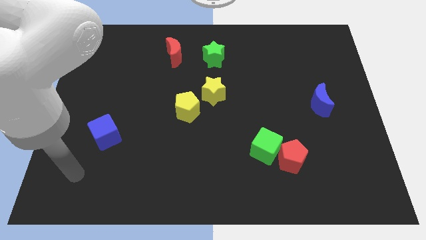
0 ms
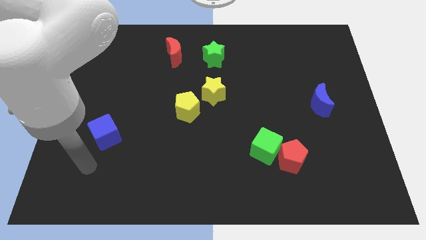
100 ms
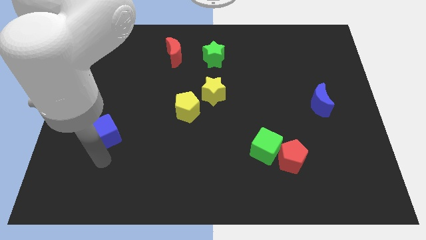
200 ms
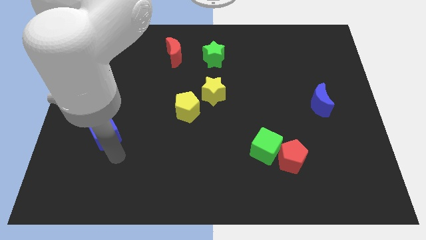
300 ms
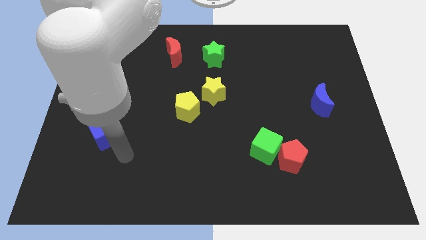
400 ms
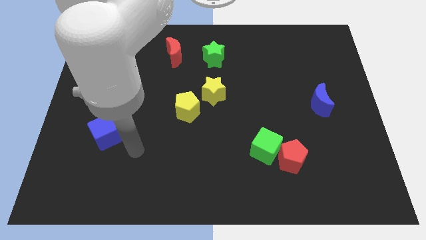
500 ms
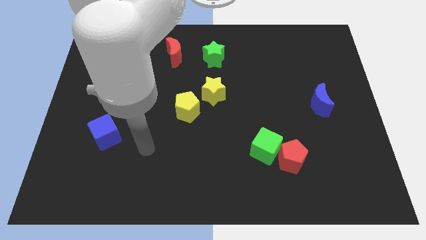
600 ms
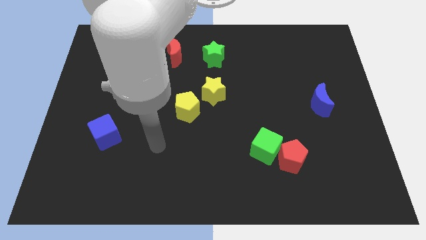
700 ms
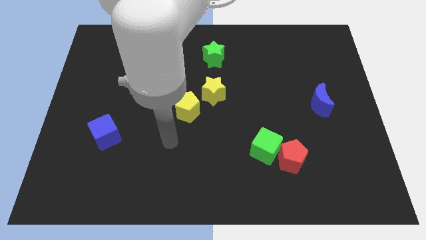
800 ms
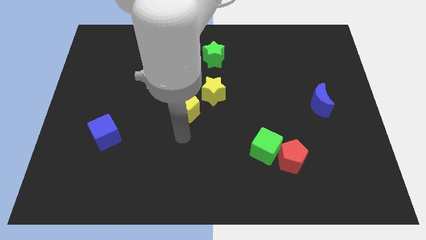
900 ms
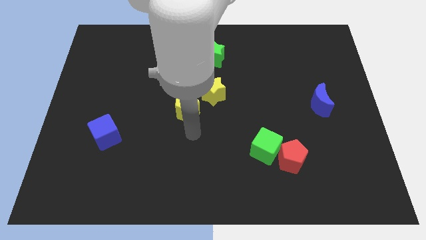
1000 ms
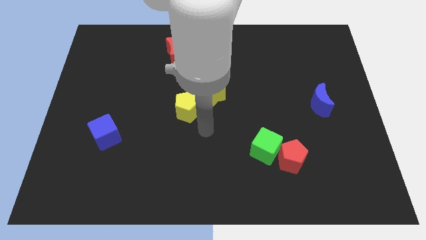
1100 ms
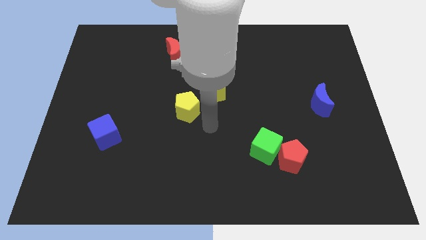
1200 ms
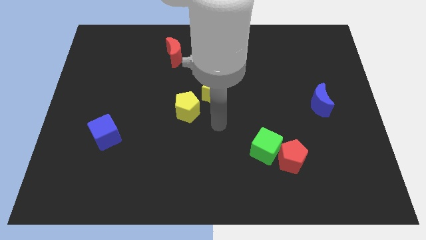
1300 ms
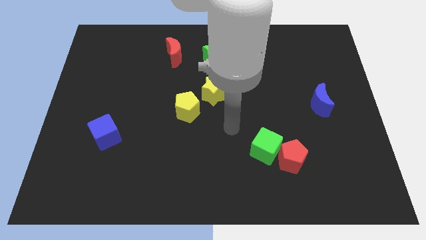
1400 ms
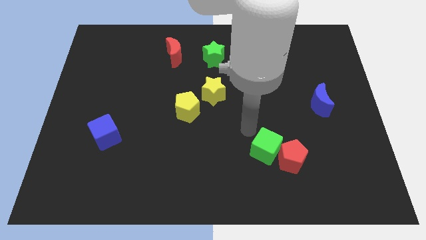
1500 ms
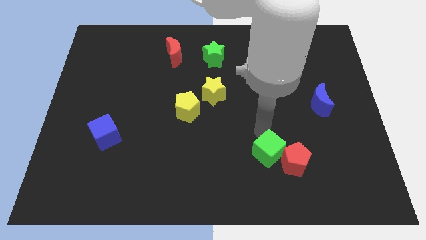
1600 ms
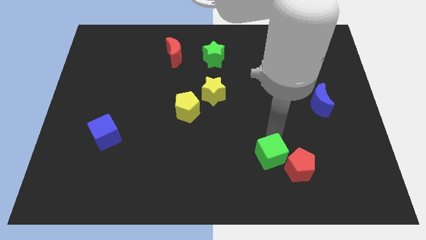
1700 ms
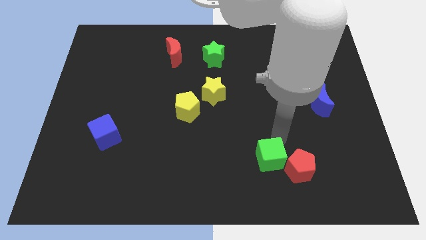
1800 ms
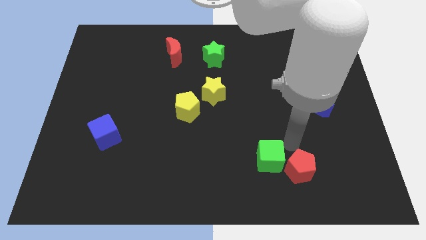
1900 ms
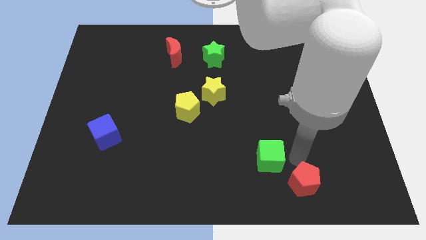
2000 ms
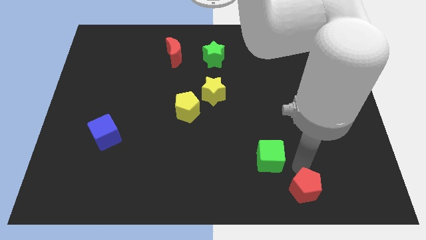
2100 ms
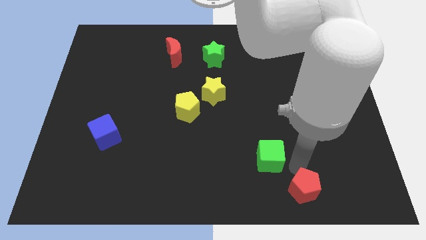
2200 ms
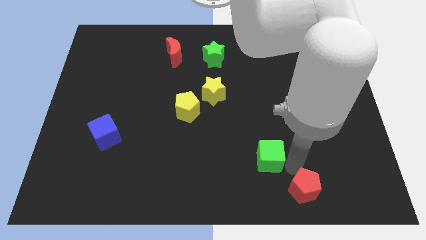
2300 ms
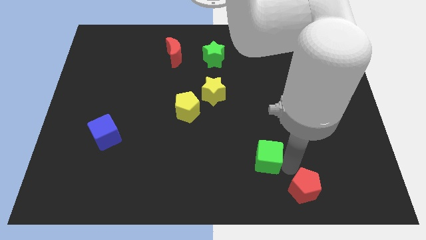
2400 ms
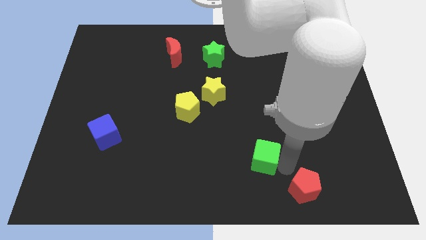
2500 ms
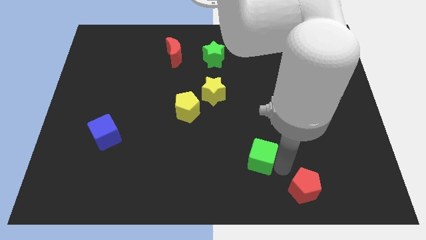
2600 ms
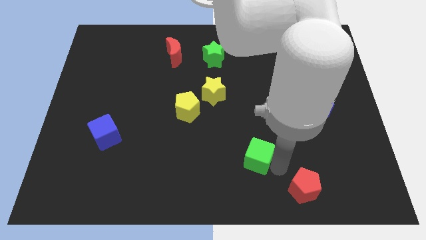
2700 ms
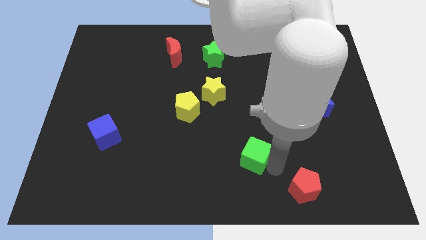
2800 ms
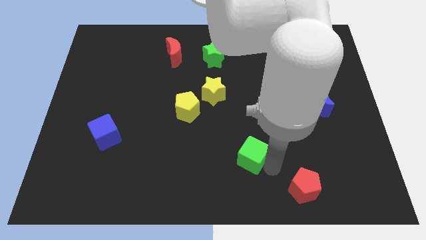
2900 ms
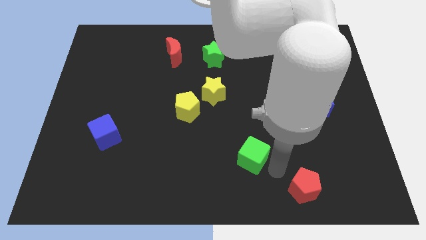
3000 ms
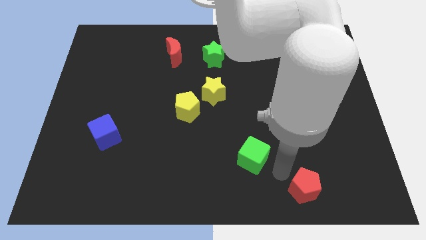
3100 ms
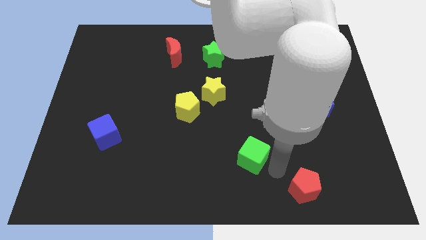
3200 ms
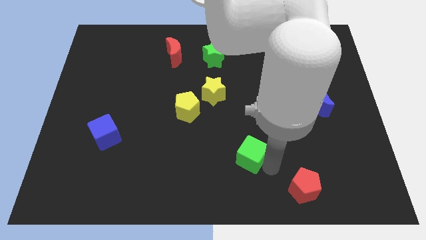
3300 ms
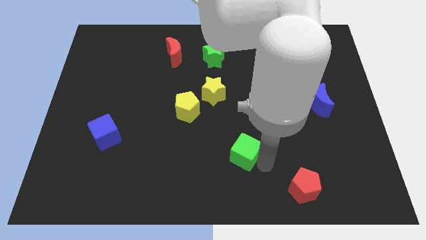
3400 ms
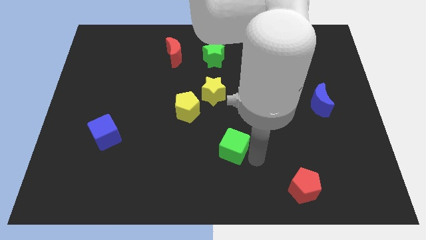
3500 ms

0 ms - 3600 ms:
slightly push the green cube to the left

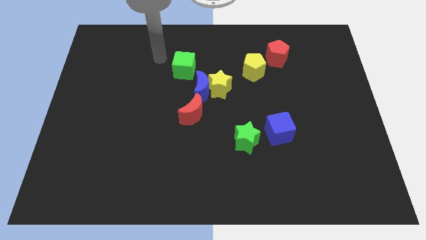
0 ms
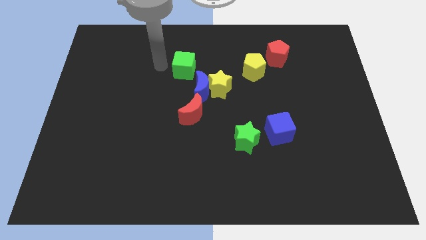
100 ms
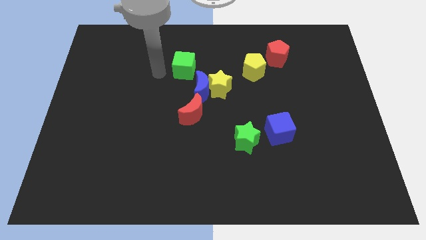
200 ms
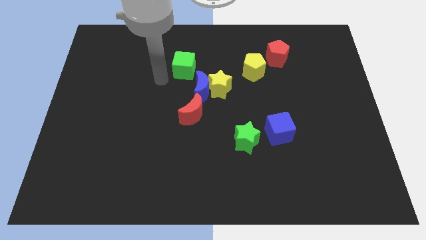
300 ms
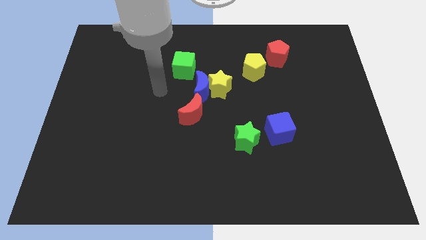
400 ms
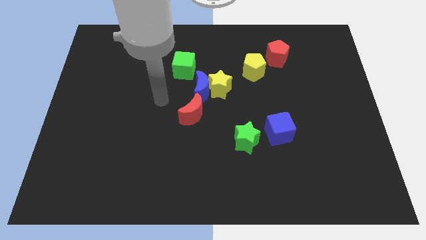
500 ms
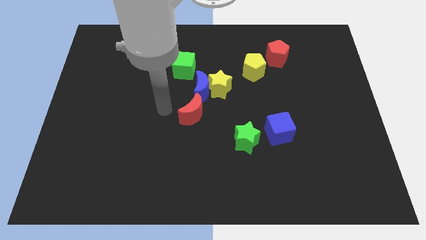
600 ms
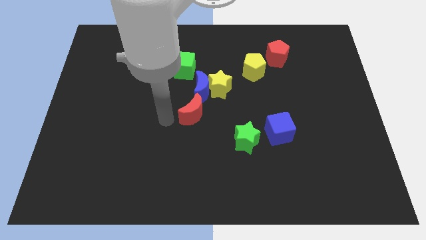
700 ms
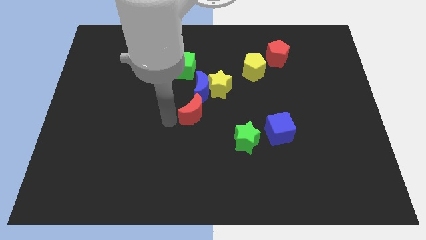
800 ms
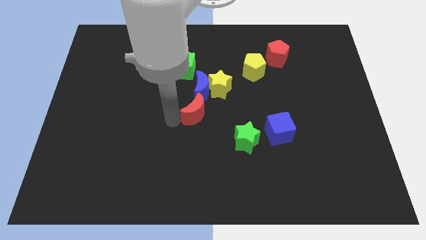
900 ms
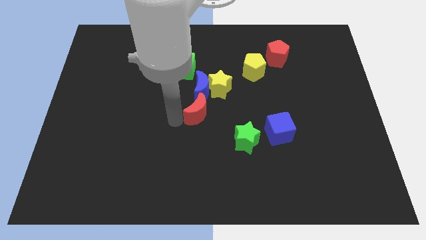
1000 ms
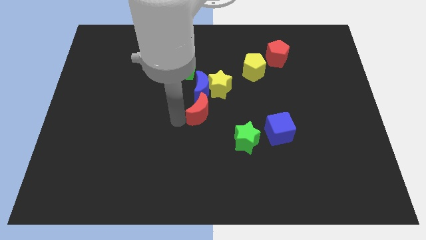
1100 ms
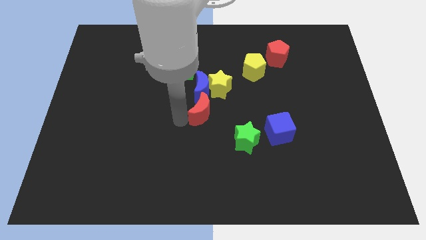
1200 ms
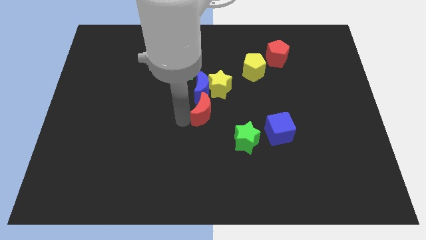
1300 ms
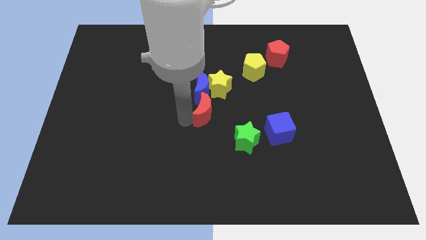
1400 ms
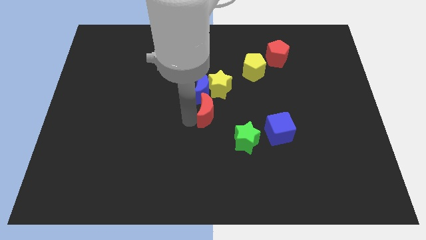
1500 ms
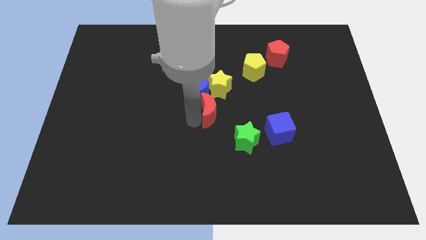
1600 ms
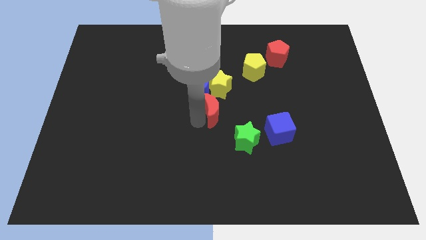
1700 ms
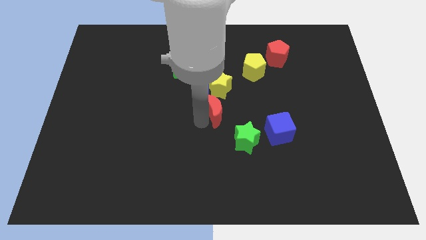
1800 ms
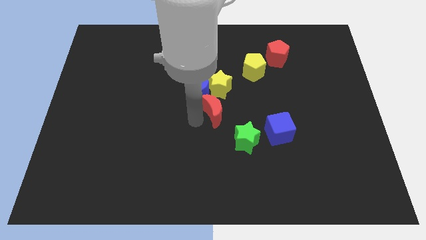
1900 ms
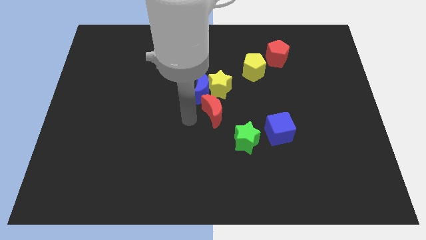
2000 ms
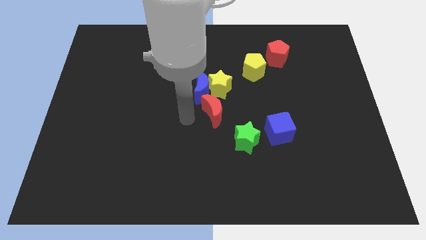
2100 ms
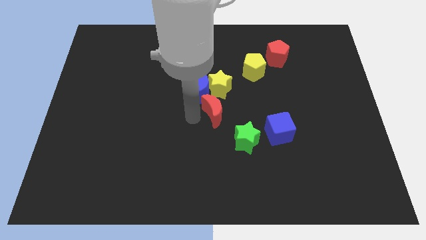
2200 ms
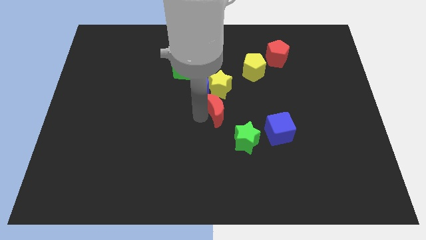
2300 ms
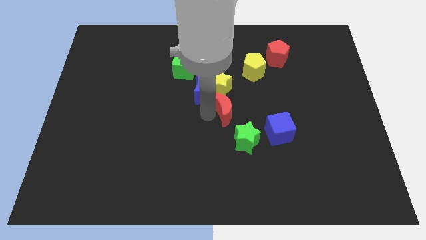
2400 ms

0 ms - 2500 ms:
slide the red moon to the right a bit

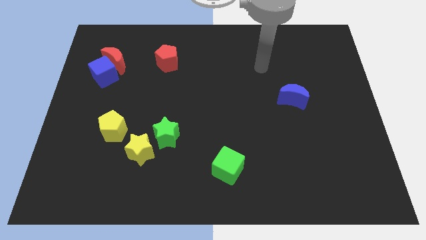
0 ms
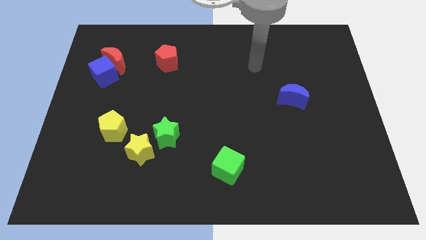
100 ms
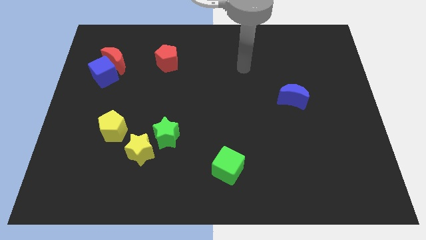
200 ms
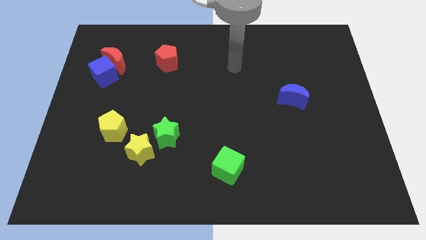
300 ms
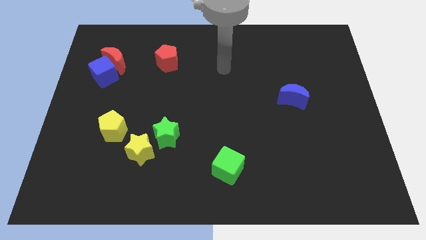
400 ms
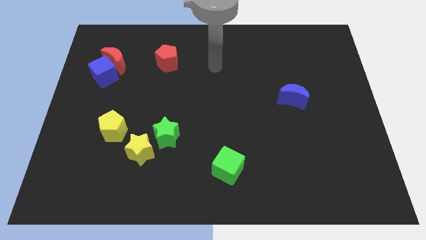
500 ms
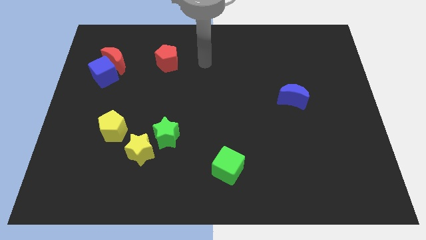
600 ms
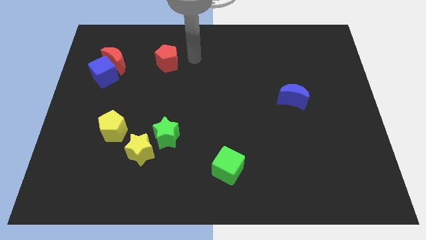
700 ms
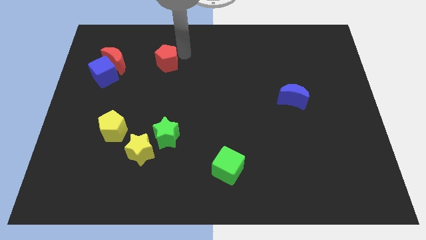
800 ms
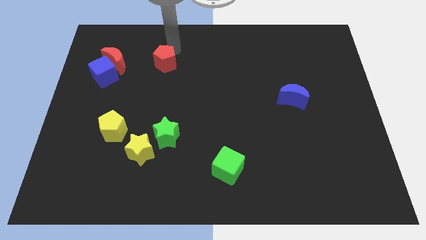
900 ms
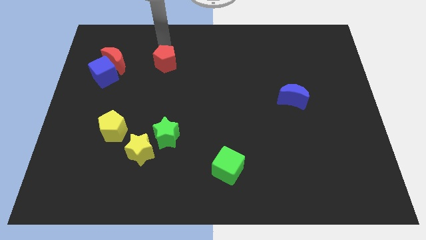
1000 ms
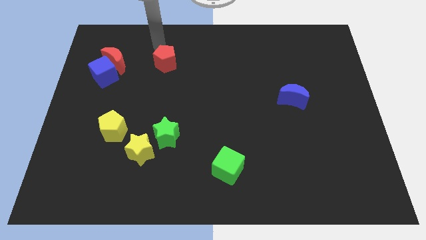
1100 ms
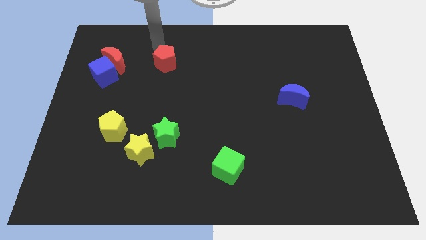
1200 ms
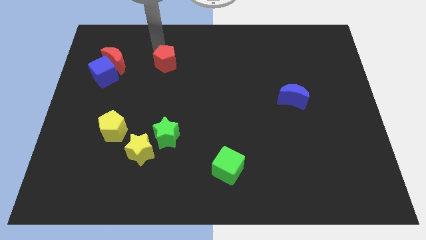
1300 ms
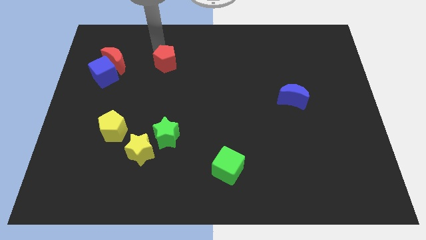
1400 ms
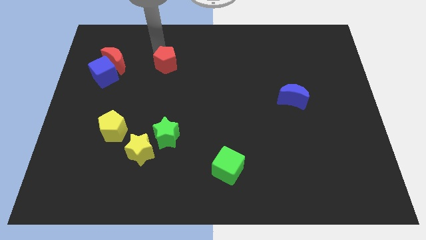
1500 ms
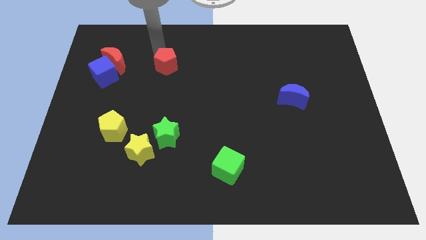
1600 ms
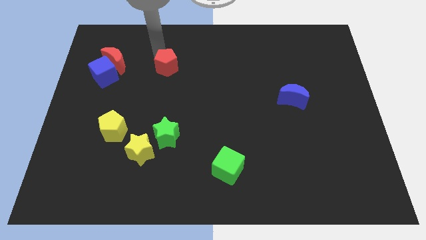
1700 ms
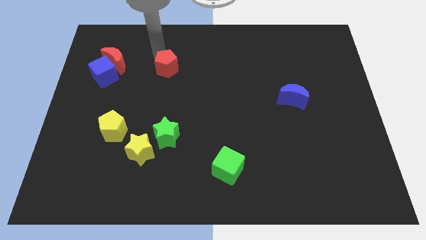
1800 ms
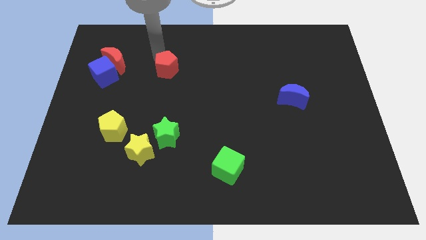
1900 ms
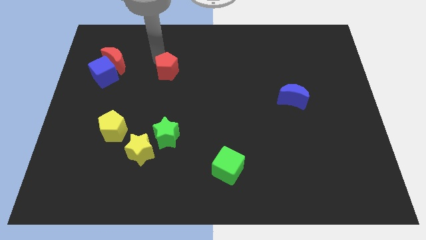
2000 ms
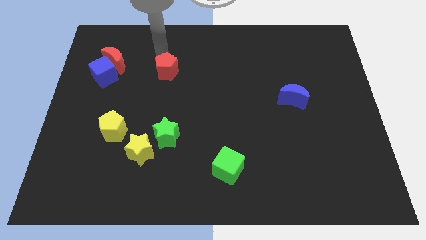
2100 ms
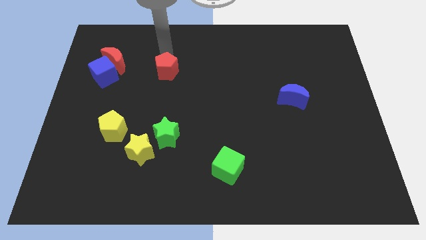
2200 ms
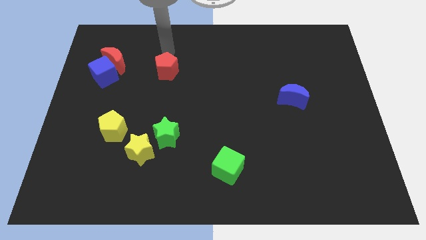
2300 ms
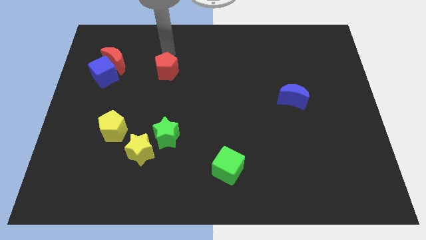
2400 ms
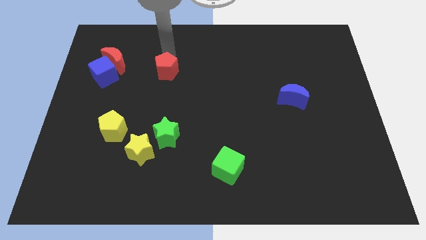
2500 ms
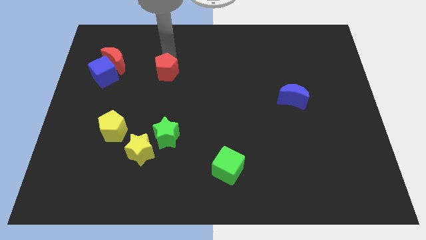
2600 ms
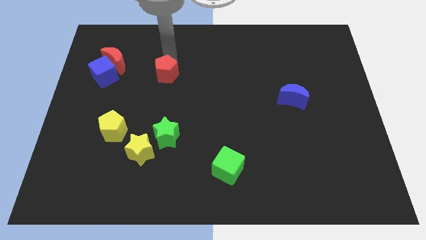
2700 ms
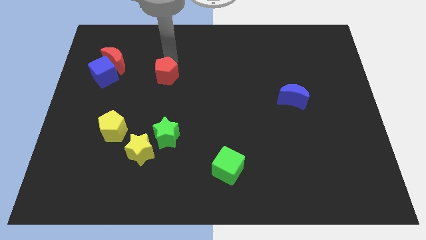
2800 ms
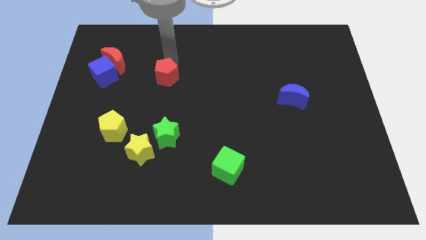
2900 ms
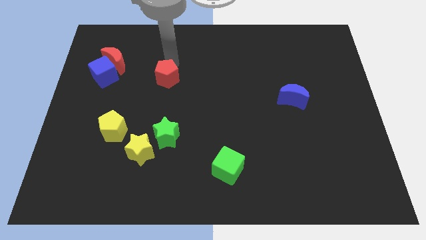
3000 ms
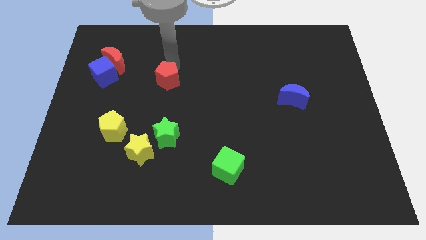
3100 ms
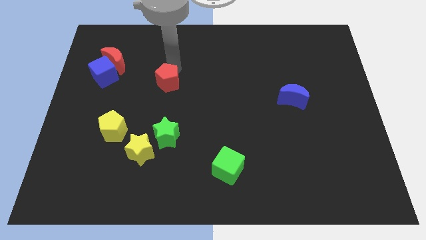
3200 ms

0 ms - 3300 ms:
slightly slide the red pentagon down
